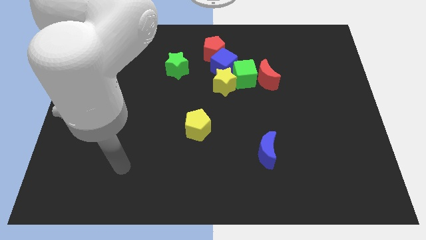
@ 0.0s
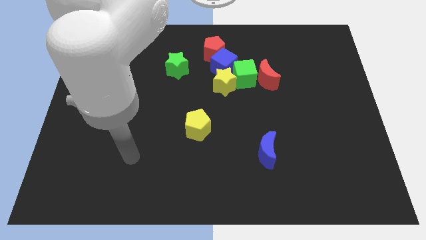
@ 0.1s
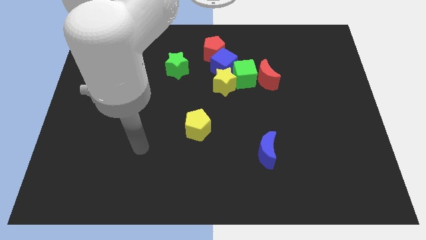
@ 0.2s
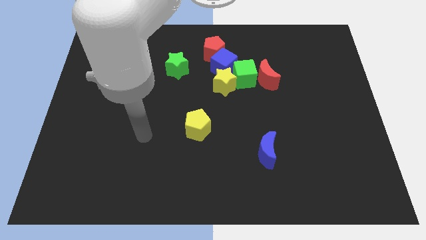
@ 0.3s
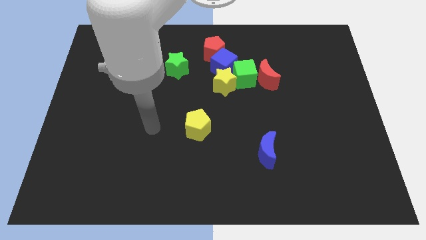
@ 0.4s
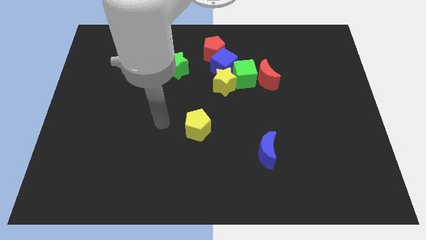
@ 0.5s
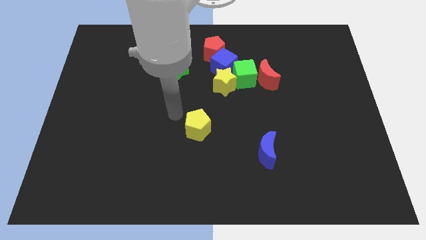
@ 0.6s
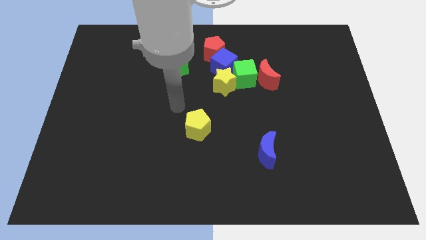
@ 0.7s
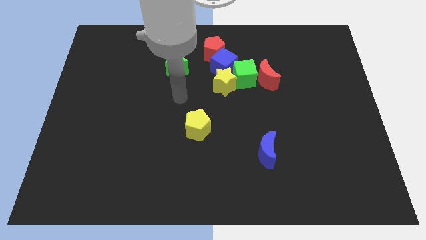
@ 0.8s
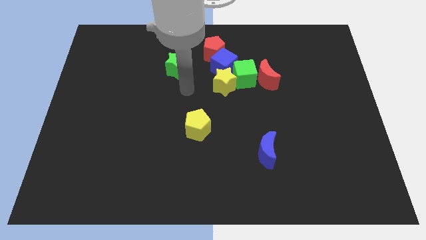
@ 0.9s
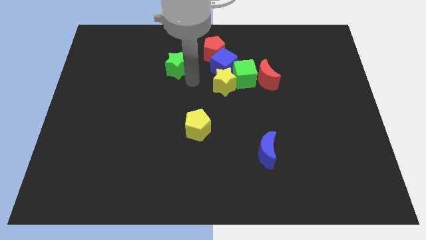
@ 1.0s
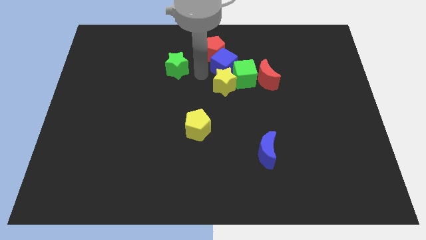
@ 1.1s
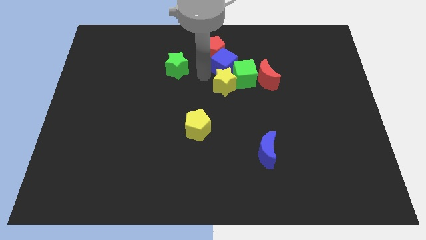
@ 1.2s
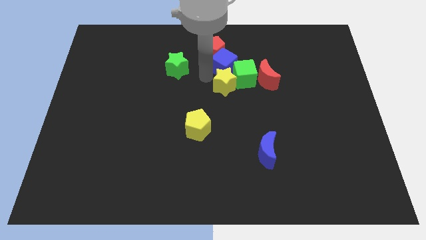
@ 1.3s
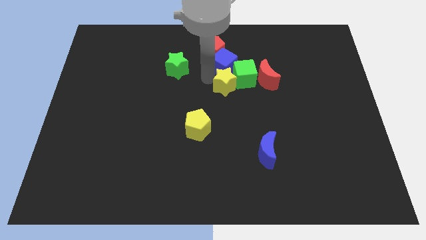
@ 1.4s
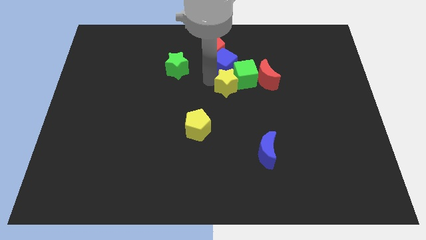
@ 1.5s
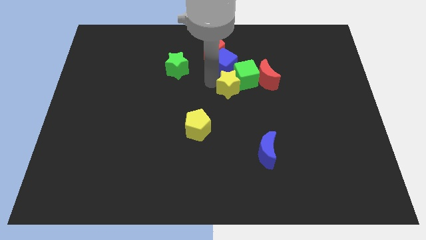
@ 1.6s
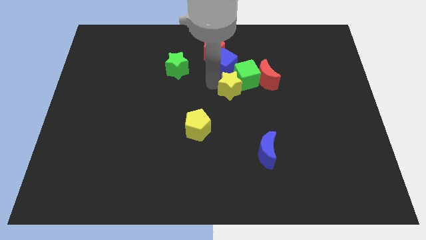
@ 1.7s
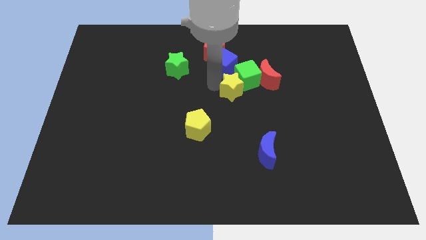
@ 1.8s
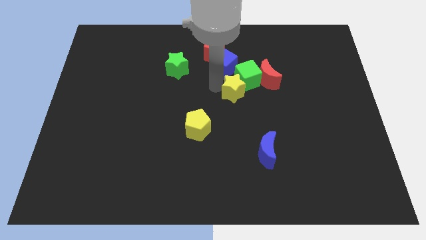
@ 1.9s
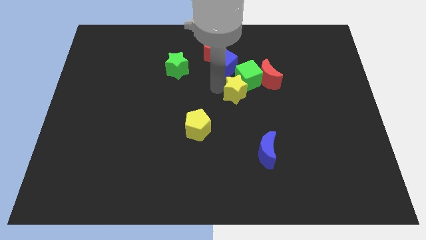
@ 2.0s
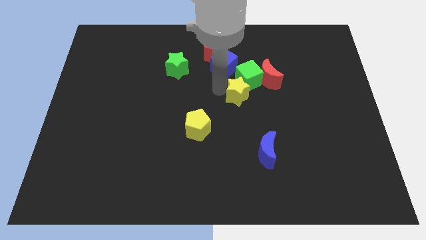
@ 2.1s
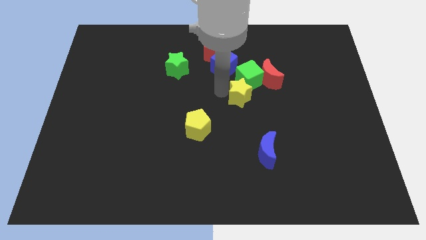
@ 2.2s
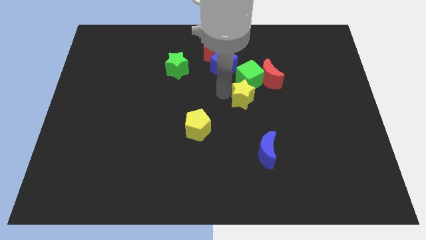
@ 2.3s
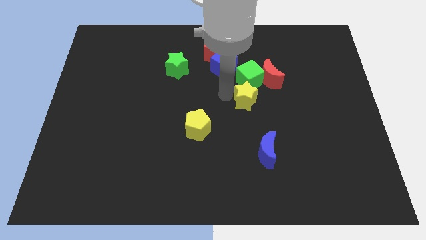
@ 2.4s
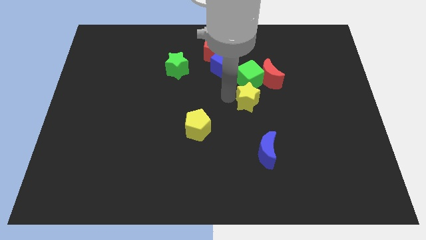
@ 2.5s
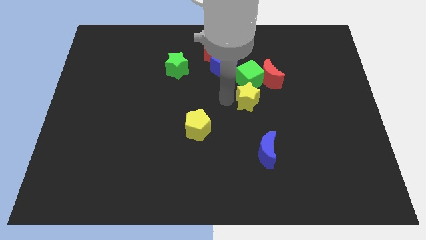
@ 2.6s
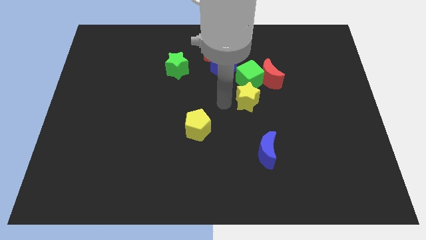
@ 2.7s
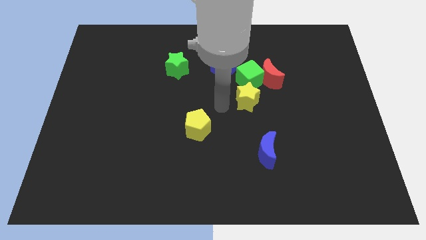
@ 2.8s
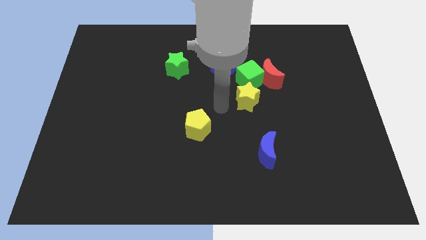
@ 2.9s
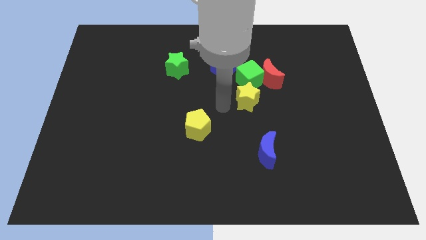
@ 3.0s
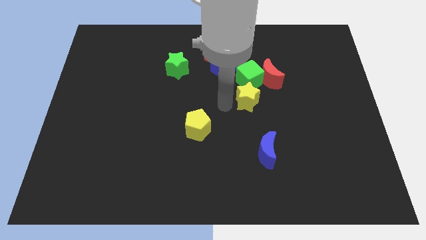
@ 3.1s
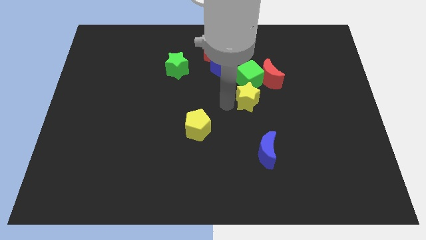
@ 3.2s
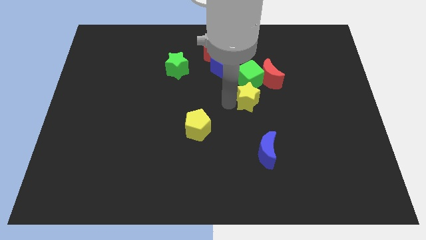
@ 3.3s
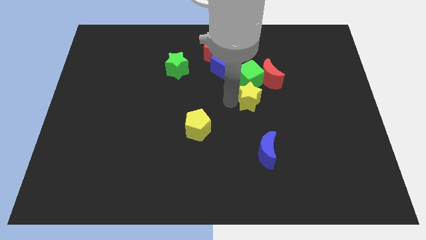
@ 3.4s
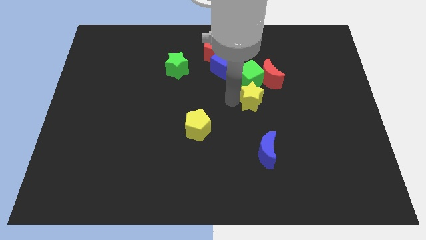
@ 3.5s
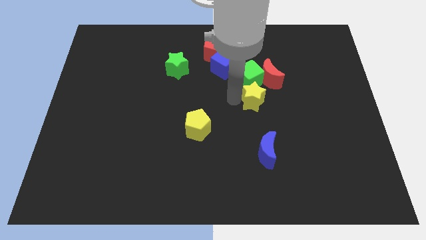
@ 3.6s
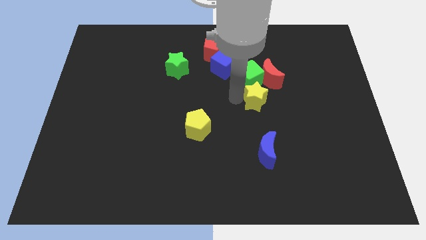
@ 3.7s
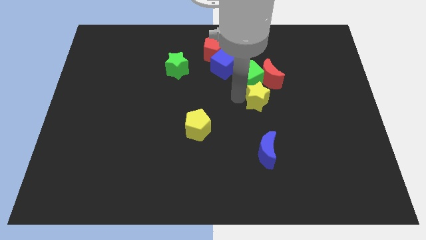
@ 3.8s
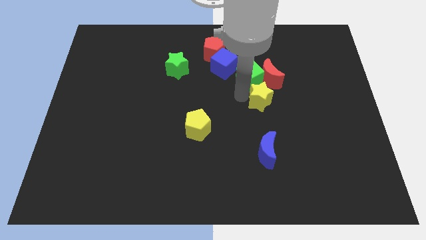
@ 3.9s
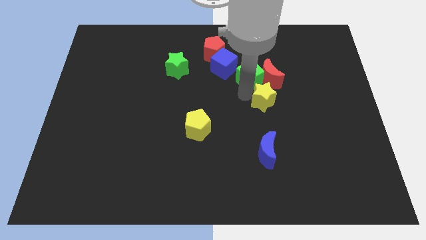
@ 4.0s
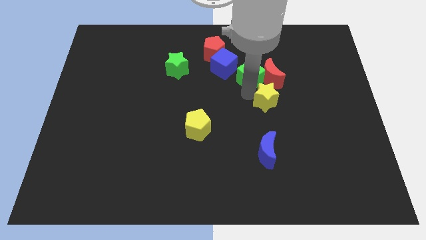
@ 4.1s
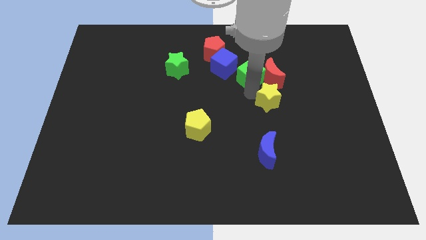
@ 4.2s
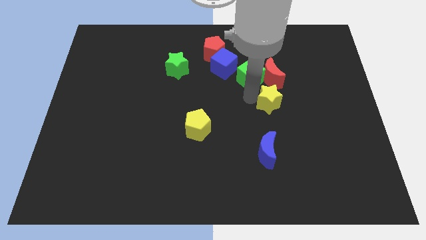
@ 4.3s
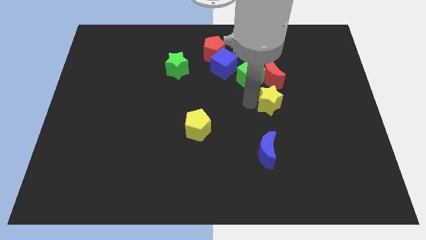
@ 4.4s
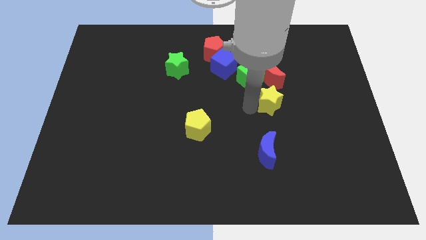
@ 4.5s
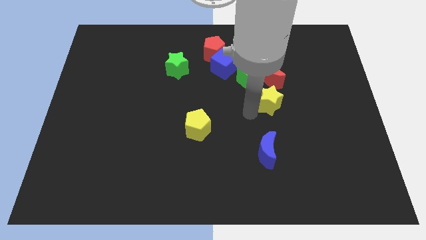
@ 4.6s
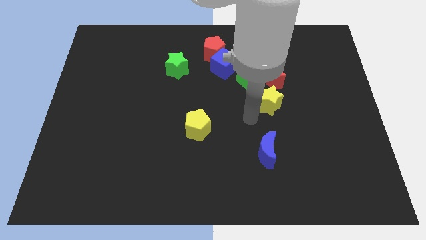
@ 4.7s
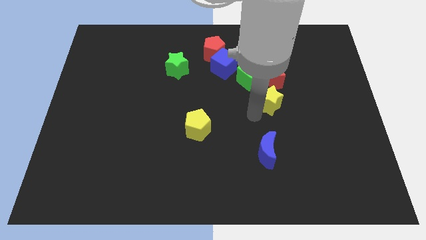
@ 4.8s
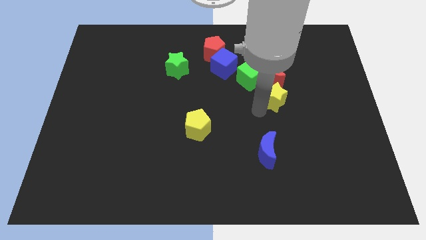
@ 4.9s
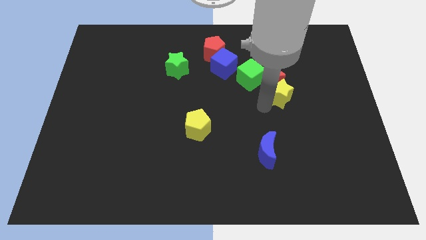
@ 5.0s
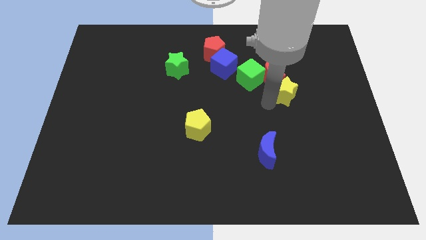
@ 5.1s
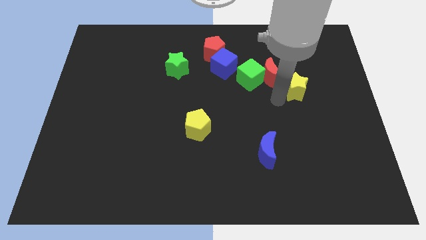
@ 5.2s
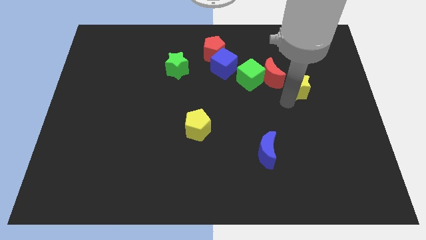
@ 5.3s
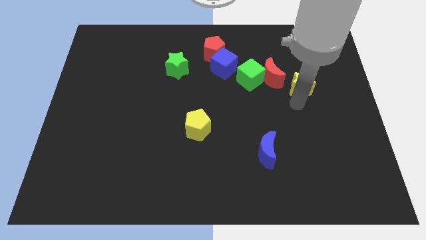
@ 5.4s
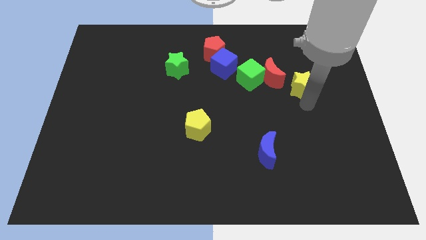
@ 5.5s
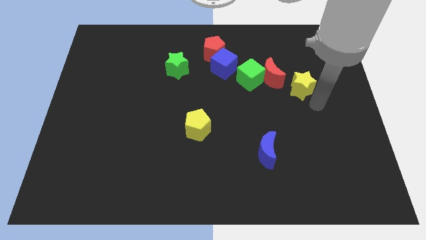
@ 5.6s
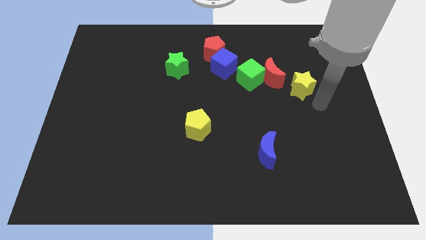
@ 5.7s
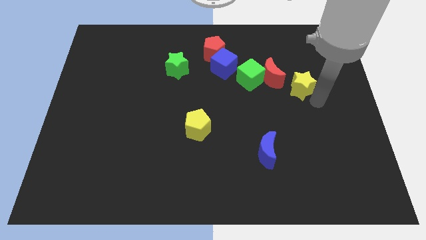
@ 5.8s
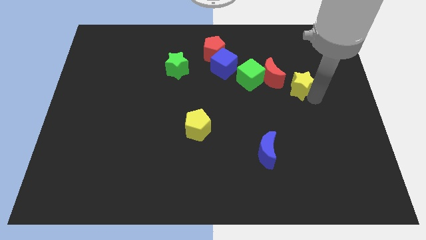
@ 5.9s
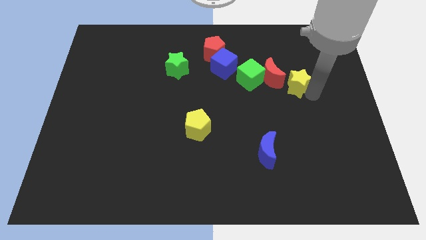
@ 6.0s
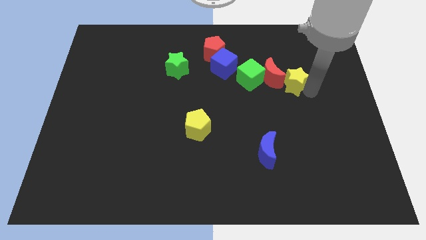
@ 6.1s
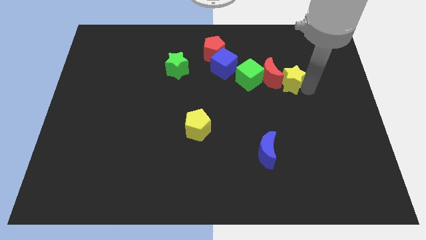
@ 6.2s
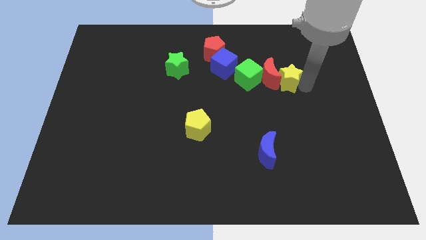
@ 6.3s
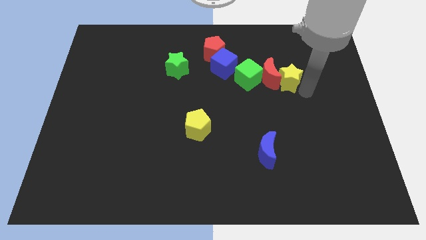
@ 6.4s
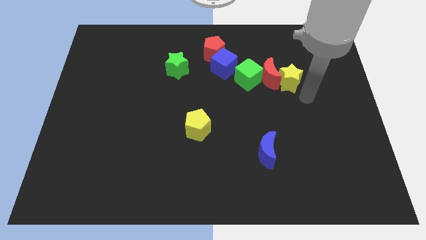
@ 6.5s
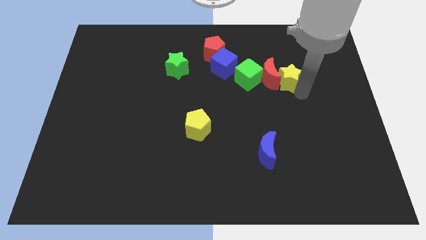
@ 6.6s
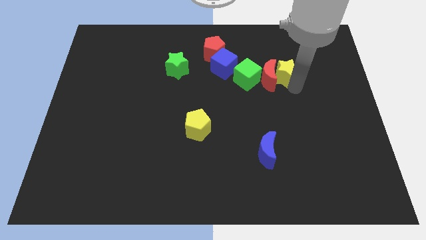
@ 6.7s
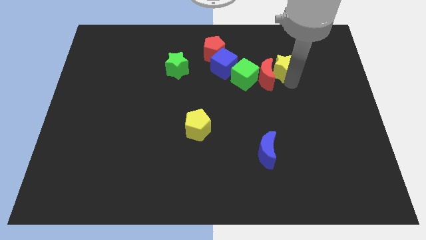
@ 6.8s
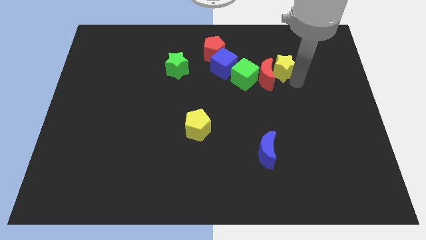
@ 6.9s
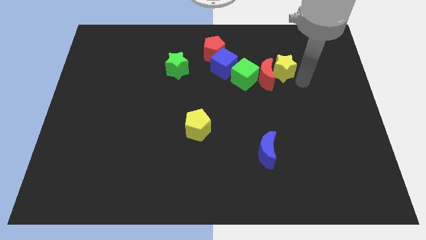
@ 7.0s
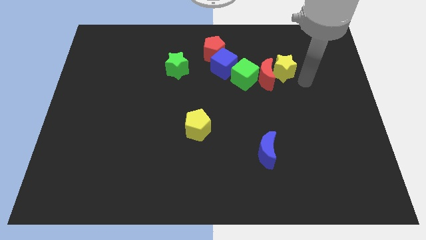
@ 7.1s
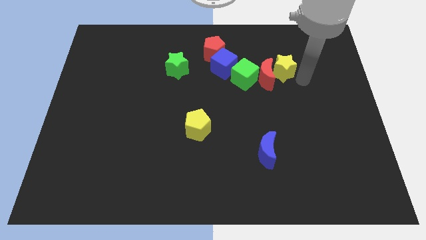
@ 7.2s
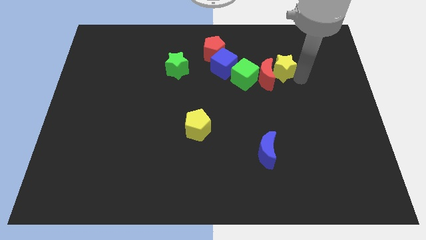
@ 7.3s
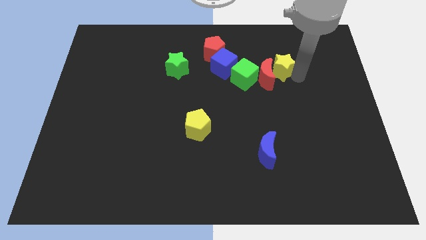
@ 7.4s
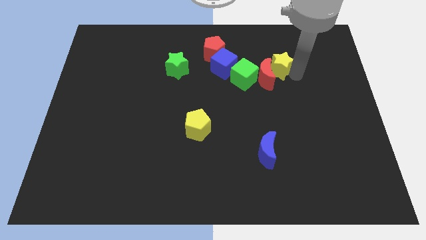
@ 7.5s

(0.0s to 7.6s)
slide the yellow star to the top right side of the green cube
